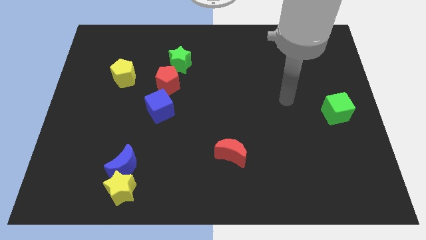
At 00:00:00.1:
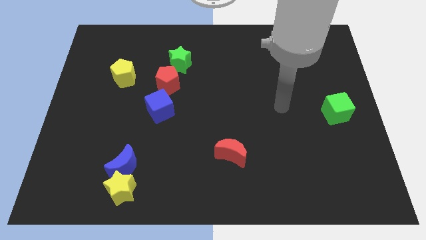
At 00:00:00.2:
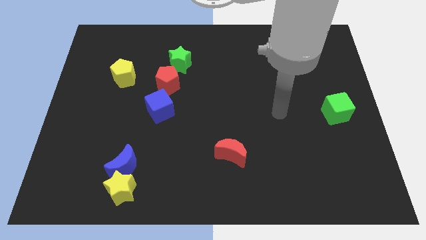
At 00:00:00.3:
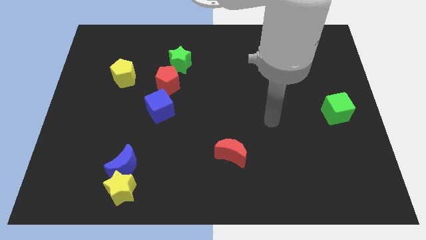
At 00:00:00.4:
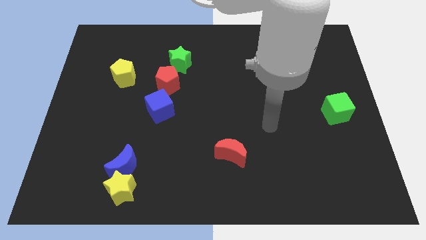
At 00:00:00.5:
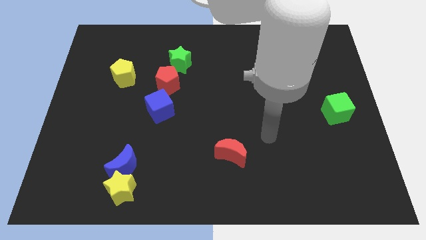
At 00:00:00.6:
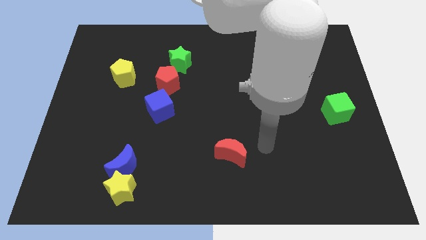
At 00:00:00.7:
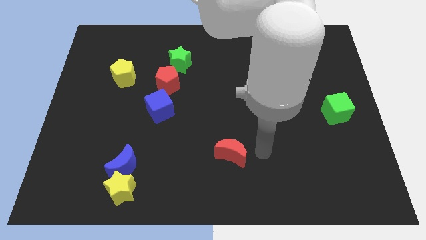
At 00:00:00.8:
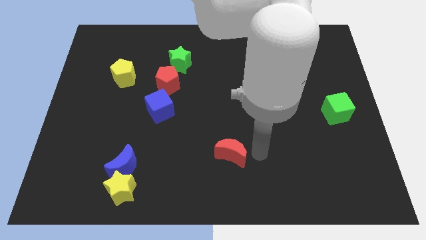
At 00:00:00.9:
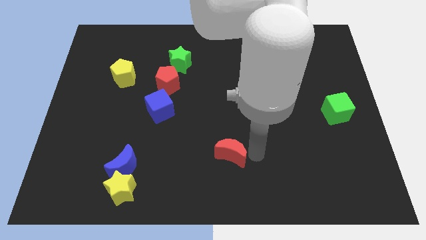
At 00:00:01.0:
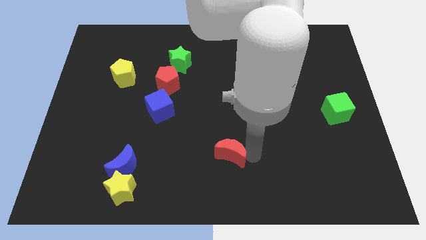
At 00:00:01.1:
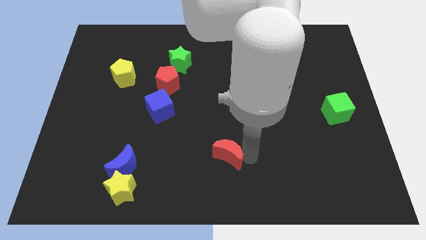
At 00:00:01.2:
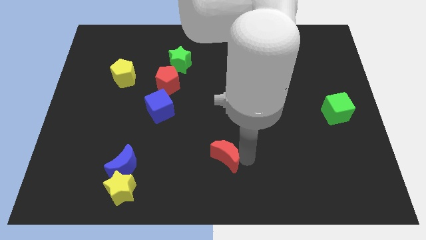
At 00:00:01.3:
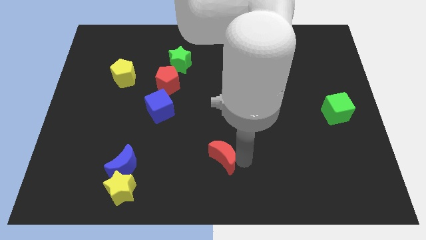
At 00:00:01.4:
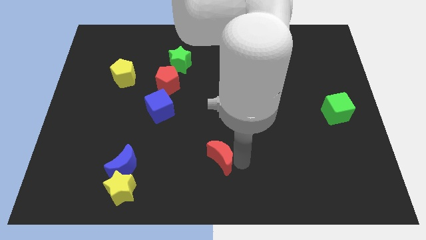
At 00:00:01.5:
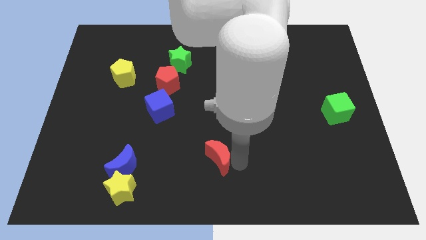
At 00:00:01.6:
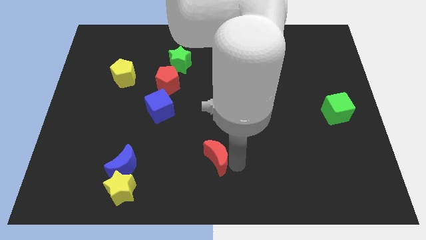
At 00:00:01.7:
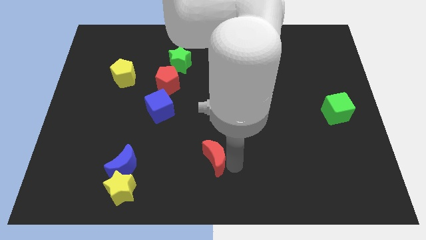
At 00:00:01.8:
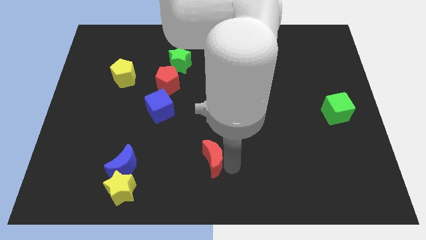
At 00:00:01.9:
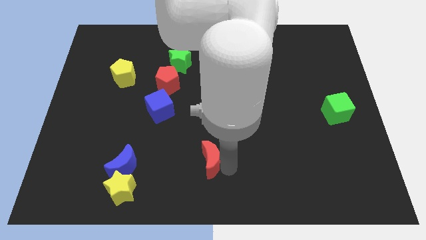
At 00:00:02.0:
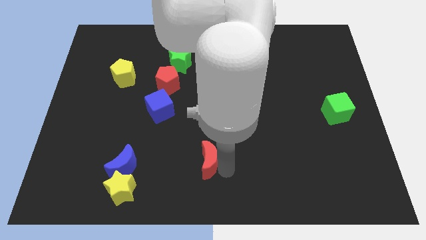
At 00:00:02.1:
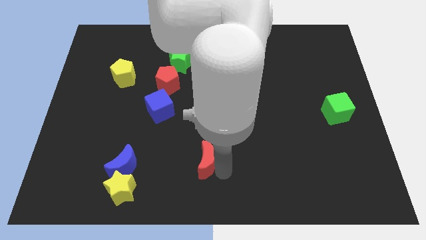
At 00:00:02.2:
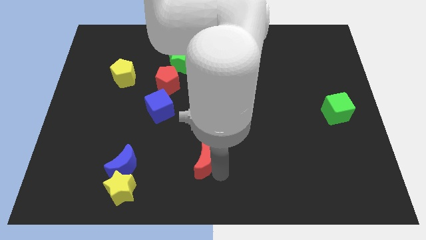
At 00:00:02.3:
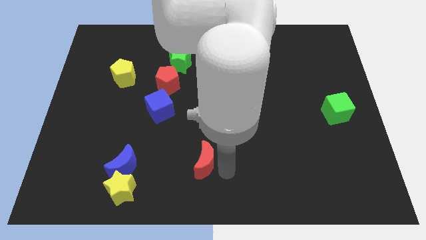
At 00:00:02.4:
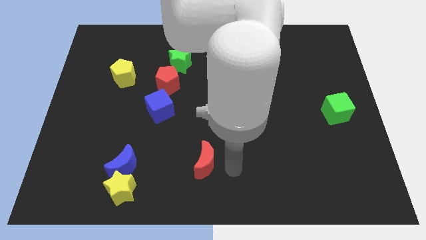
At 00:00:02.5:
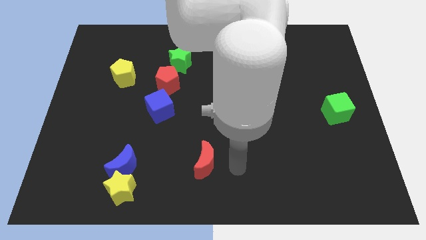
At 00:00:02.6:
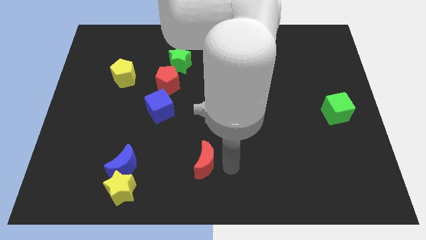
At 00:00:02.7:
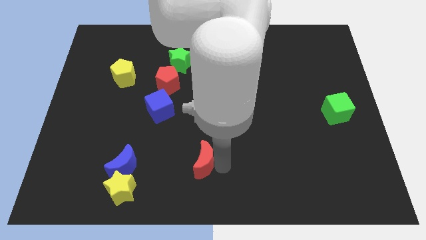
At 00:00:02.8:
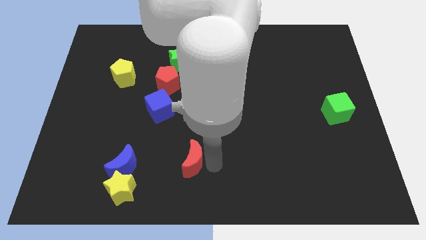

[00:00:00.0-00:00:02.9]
push the red moon a bit to the left

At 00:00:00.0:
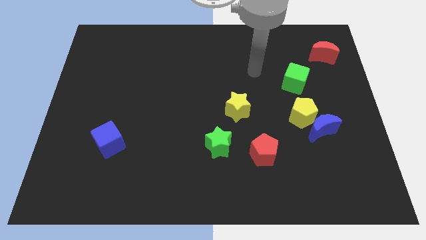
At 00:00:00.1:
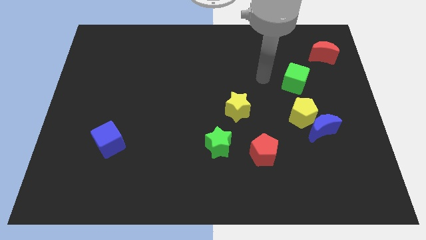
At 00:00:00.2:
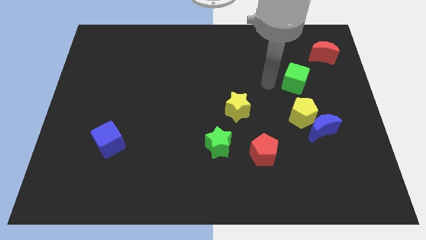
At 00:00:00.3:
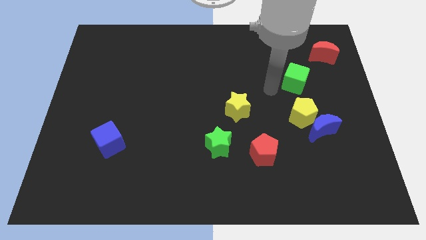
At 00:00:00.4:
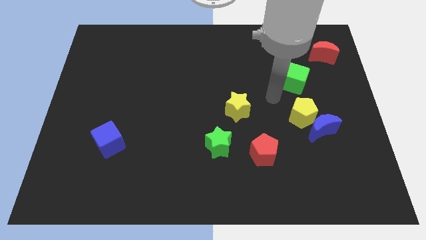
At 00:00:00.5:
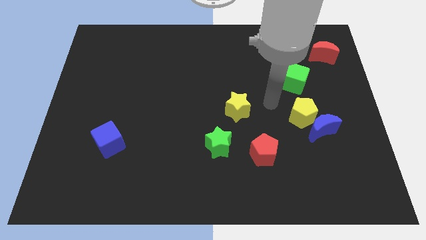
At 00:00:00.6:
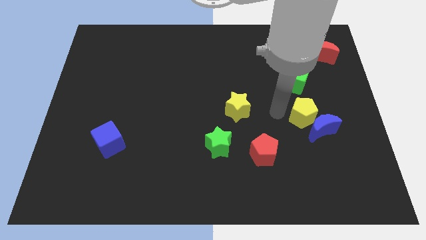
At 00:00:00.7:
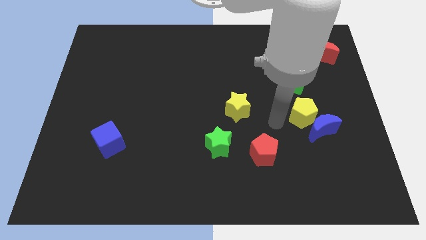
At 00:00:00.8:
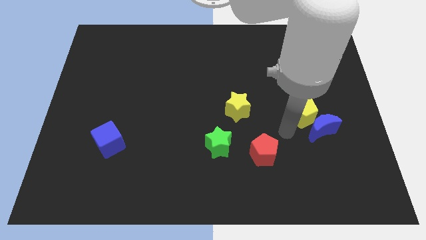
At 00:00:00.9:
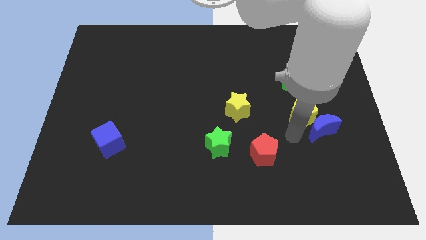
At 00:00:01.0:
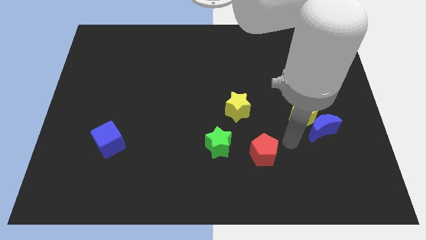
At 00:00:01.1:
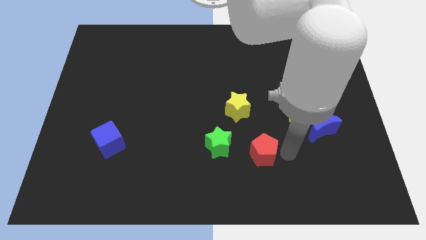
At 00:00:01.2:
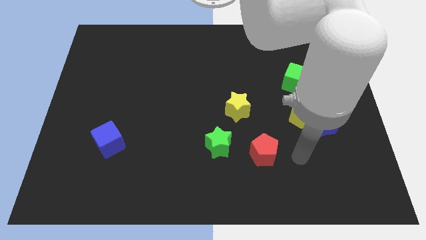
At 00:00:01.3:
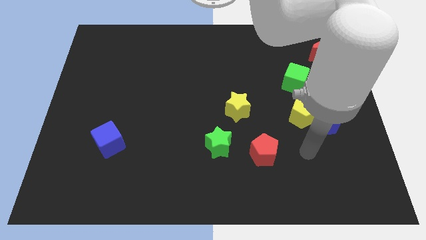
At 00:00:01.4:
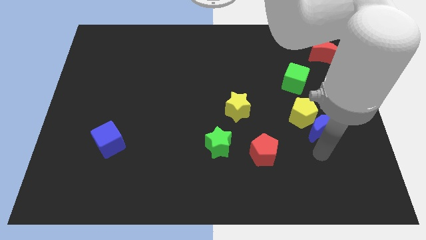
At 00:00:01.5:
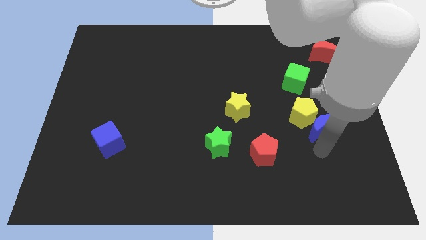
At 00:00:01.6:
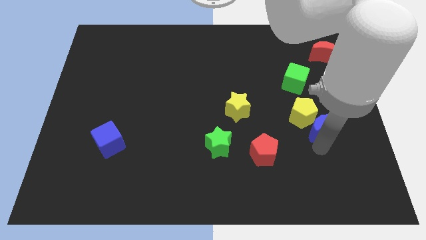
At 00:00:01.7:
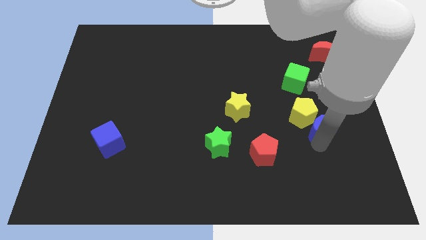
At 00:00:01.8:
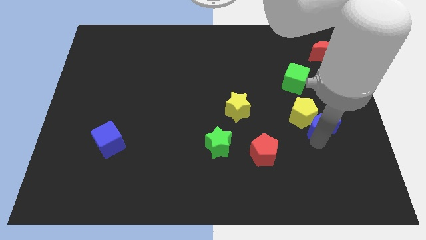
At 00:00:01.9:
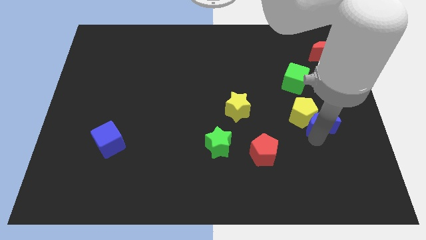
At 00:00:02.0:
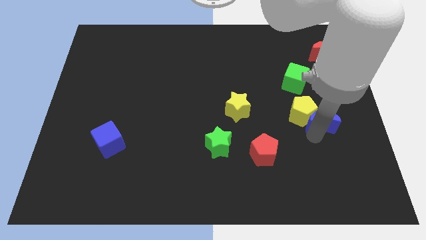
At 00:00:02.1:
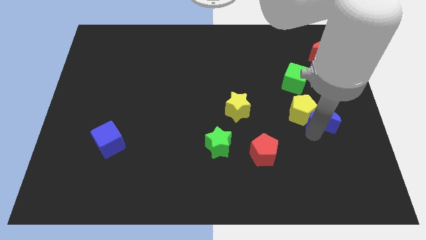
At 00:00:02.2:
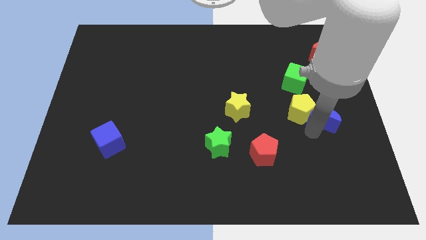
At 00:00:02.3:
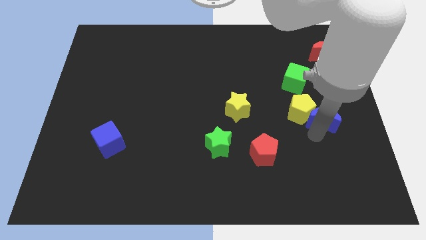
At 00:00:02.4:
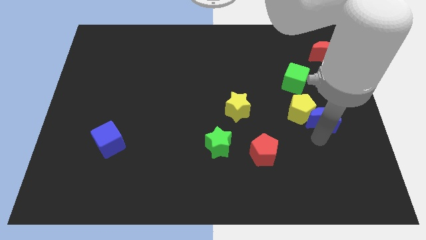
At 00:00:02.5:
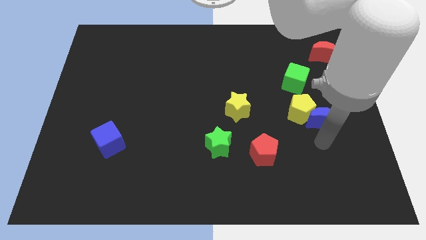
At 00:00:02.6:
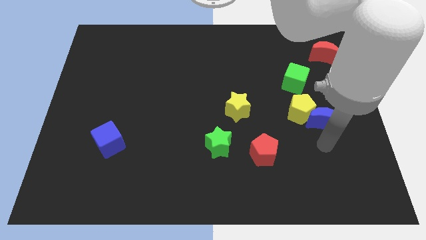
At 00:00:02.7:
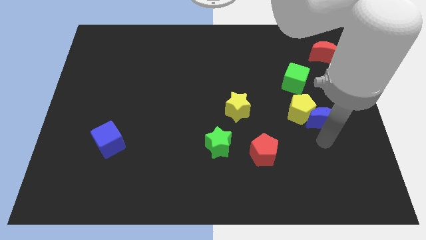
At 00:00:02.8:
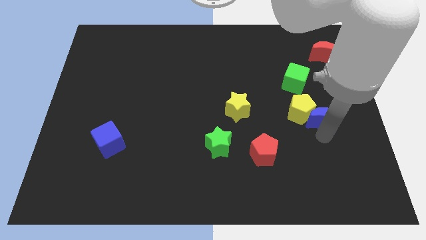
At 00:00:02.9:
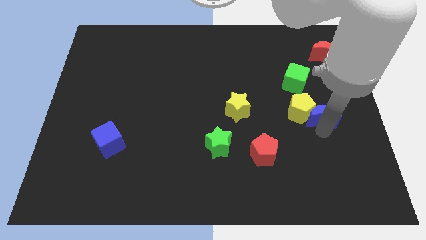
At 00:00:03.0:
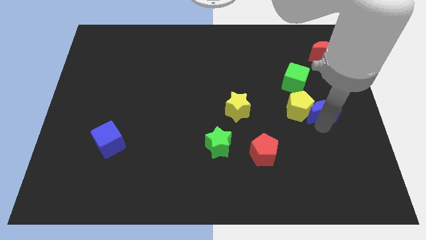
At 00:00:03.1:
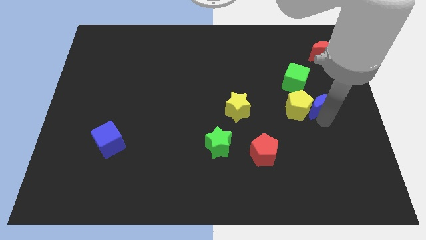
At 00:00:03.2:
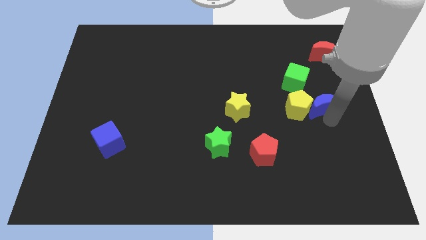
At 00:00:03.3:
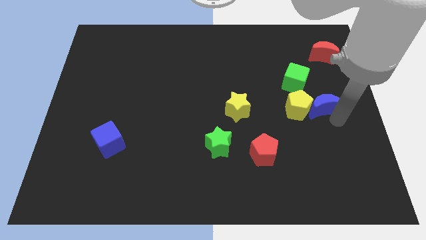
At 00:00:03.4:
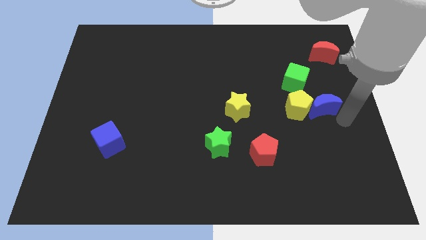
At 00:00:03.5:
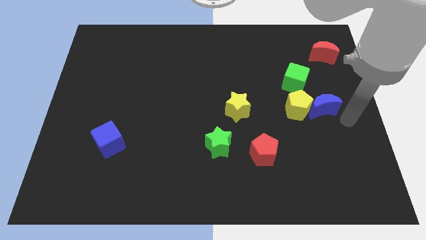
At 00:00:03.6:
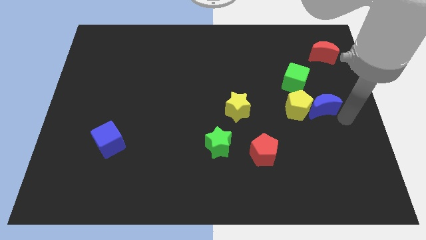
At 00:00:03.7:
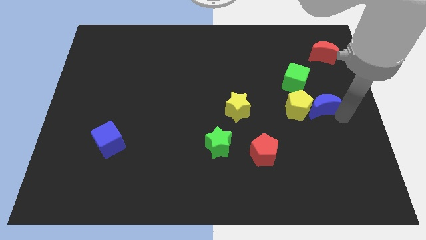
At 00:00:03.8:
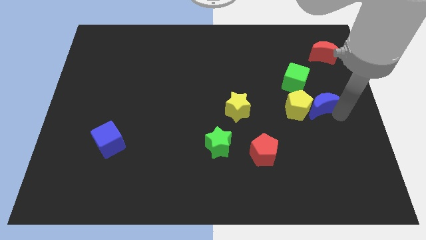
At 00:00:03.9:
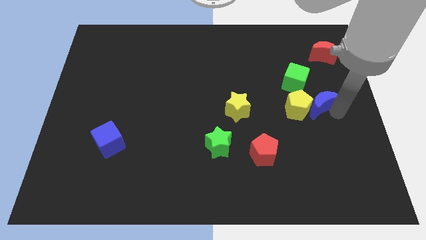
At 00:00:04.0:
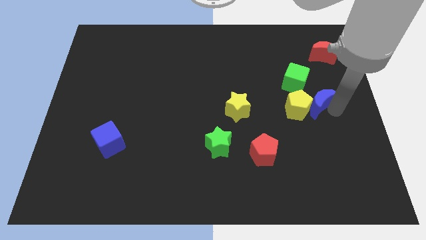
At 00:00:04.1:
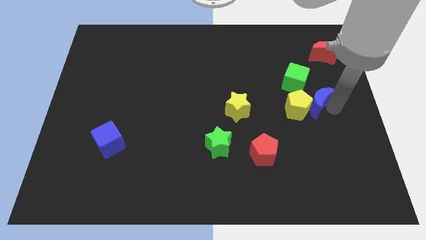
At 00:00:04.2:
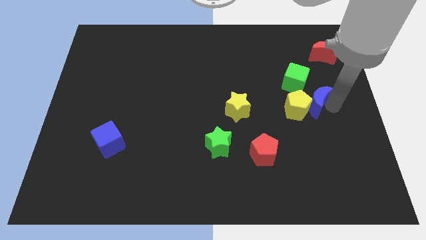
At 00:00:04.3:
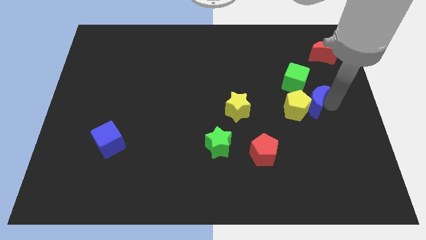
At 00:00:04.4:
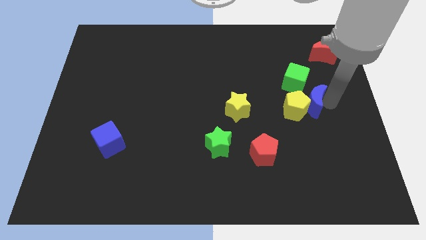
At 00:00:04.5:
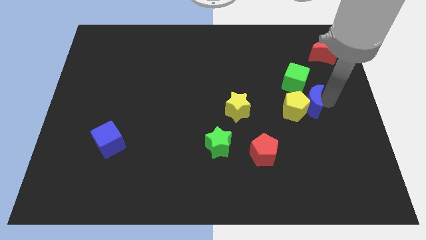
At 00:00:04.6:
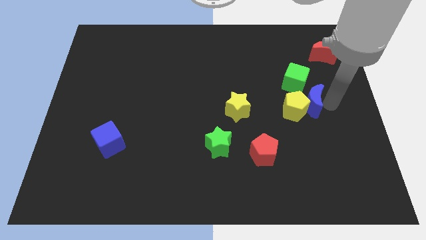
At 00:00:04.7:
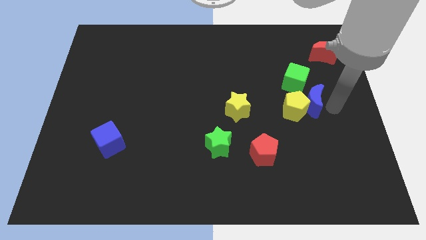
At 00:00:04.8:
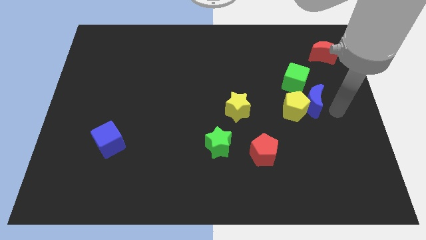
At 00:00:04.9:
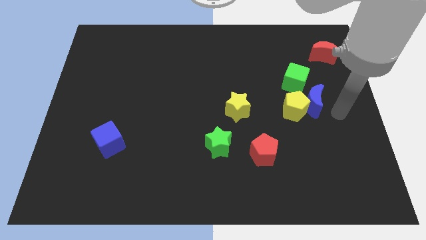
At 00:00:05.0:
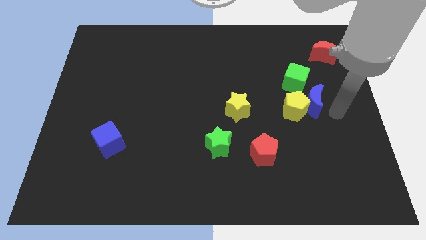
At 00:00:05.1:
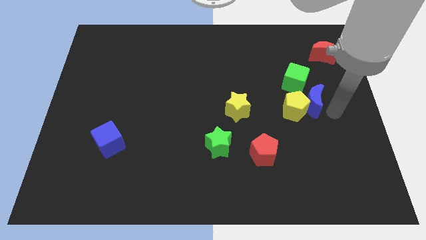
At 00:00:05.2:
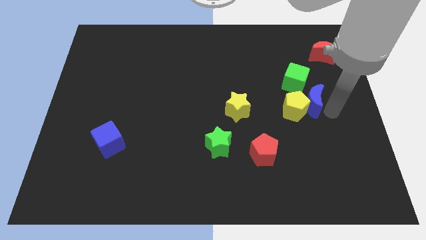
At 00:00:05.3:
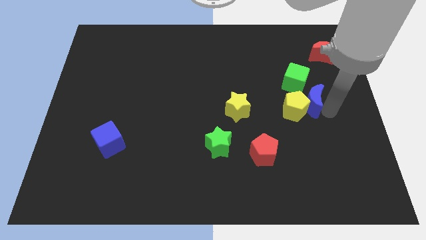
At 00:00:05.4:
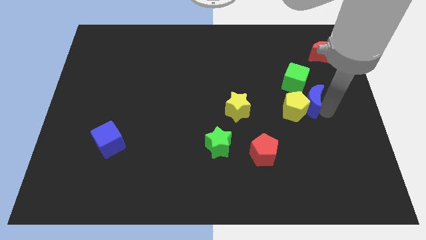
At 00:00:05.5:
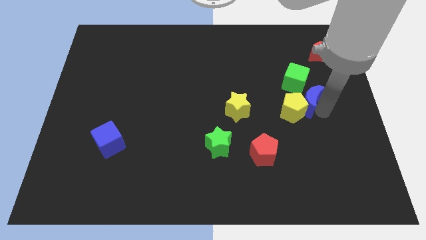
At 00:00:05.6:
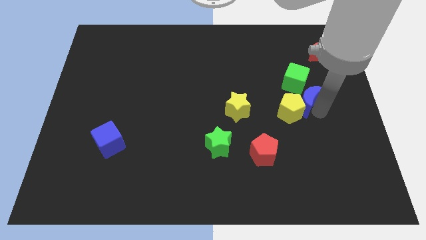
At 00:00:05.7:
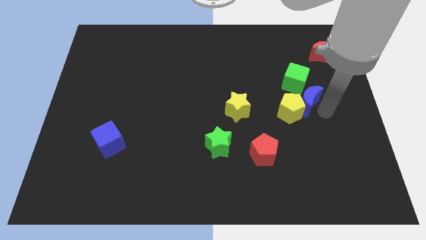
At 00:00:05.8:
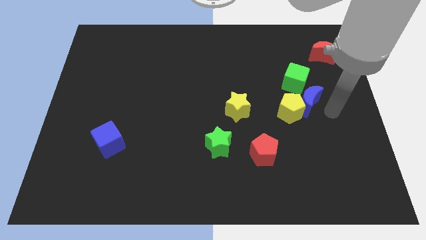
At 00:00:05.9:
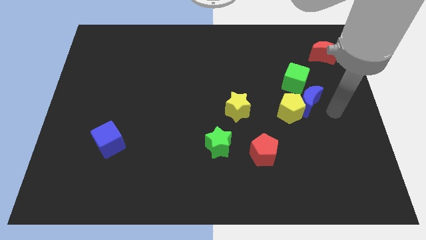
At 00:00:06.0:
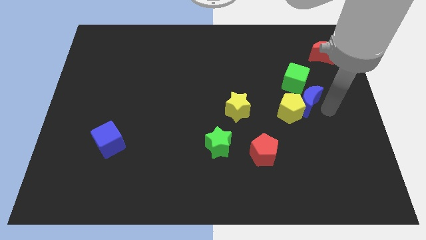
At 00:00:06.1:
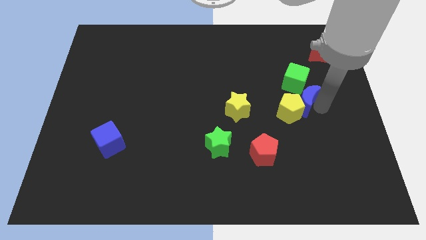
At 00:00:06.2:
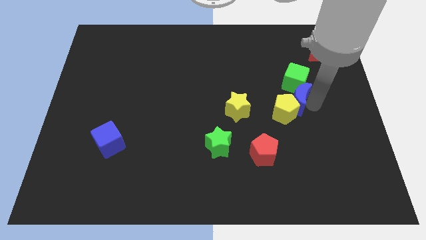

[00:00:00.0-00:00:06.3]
push the blue moon upwards and then left somewhat
